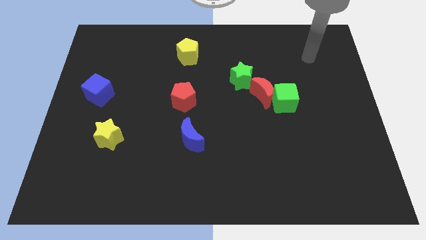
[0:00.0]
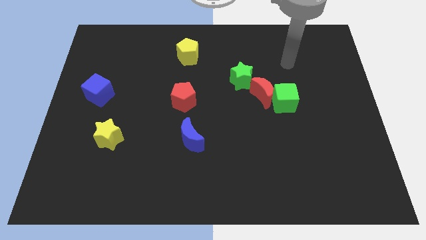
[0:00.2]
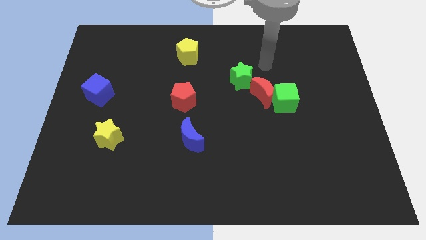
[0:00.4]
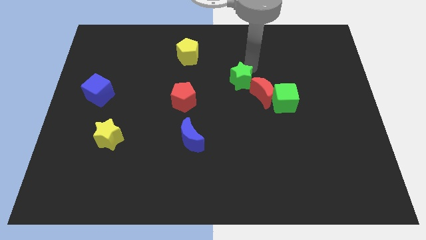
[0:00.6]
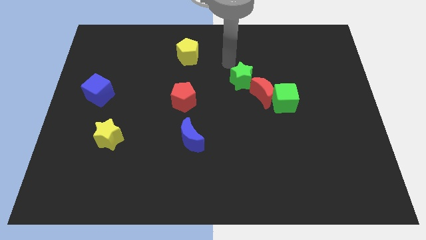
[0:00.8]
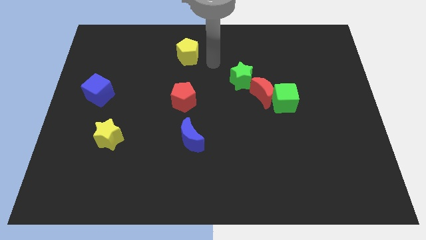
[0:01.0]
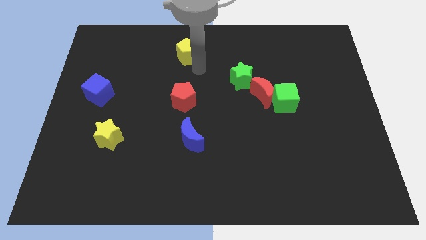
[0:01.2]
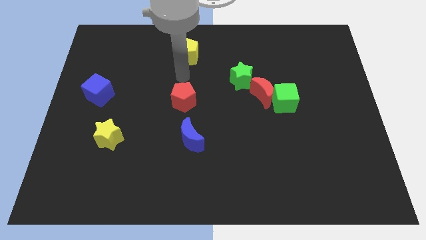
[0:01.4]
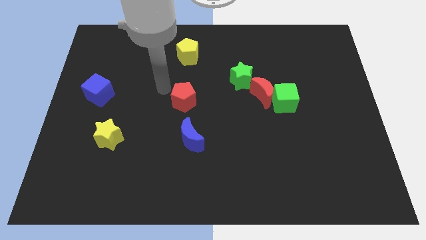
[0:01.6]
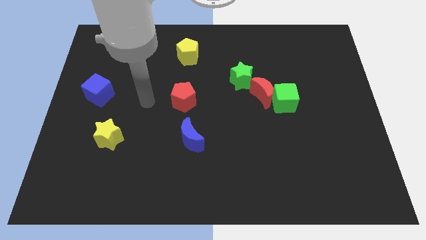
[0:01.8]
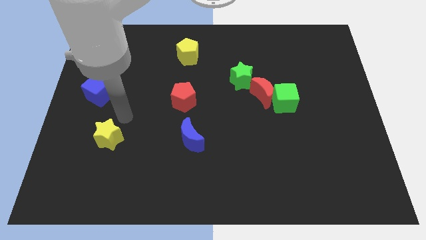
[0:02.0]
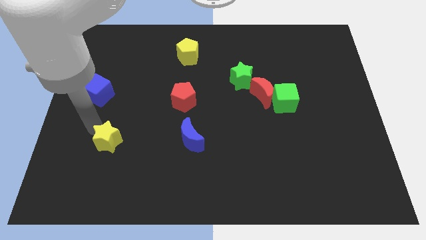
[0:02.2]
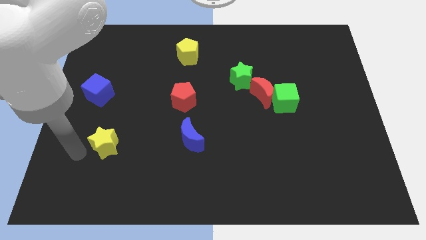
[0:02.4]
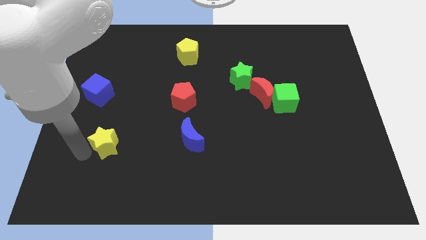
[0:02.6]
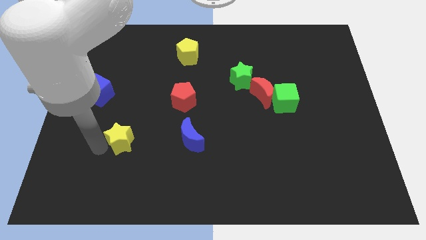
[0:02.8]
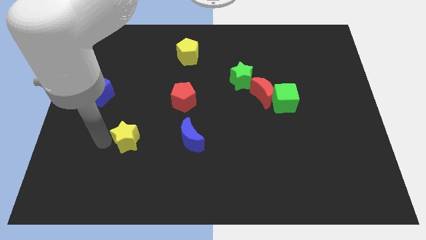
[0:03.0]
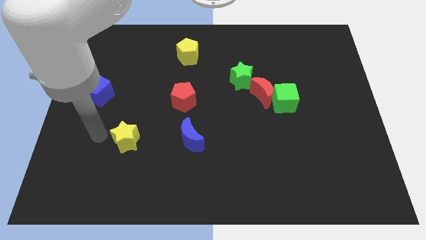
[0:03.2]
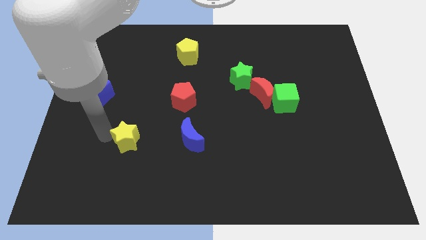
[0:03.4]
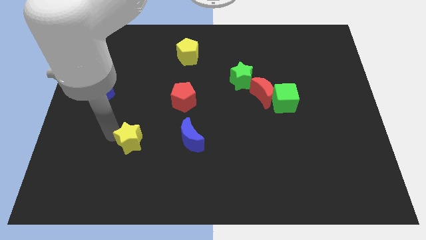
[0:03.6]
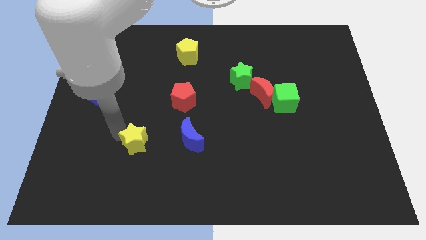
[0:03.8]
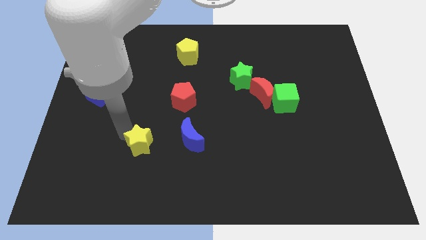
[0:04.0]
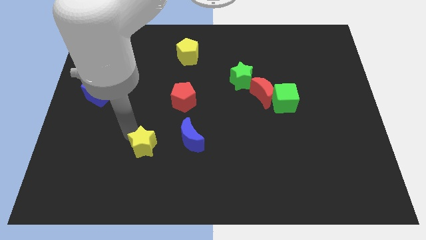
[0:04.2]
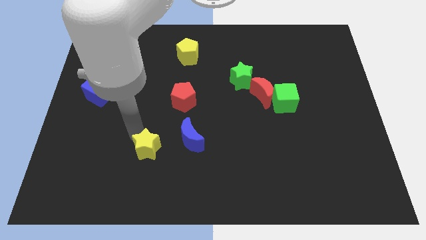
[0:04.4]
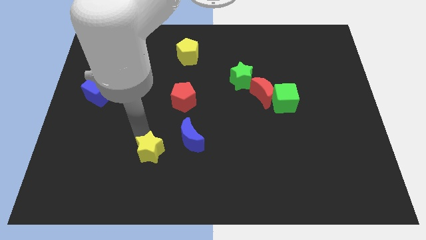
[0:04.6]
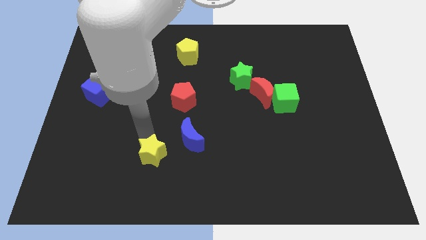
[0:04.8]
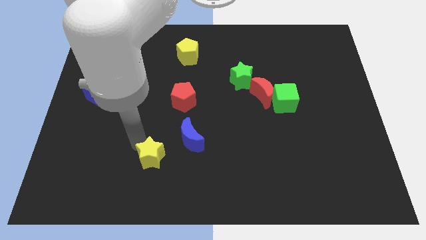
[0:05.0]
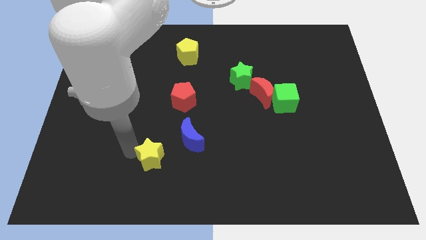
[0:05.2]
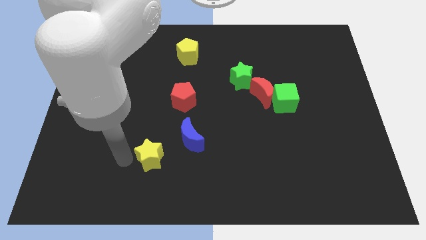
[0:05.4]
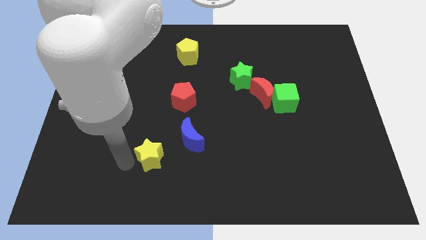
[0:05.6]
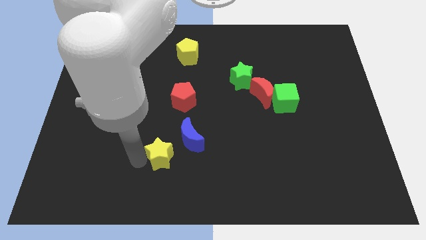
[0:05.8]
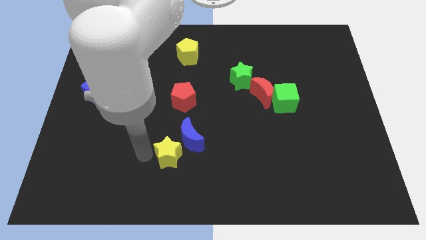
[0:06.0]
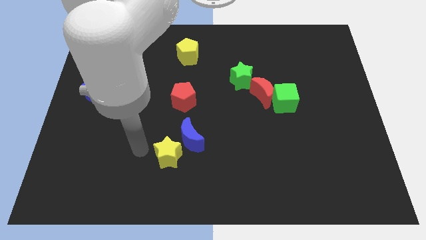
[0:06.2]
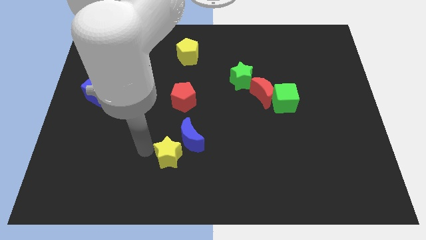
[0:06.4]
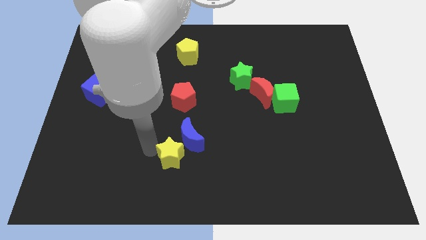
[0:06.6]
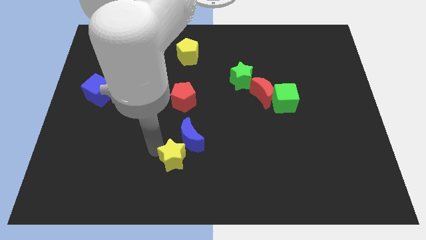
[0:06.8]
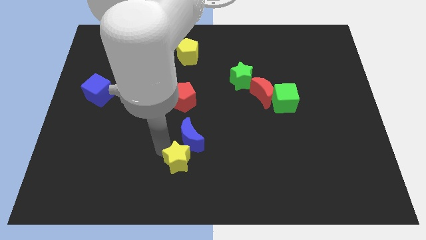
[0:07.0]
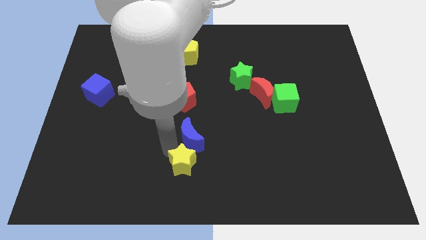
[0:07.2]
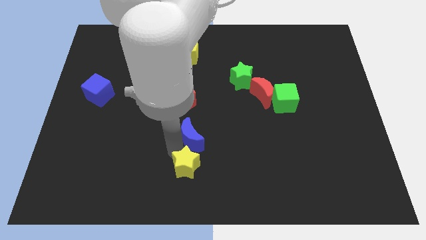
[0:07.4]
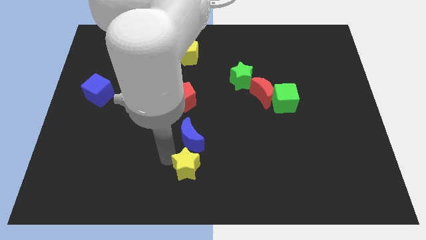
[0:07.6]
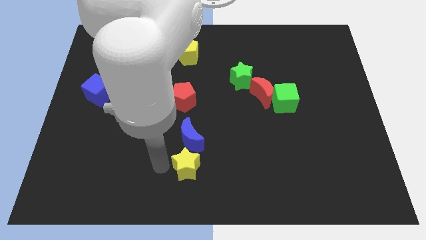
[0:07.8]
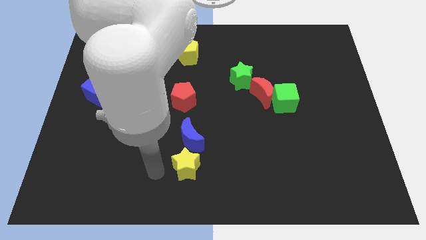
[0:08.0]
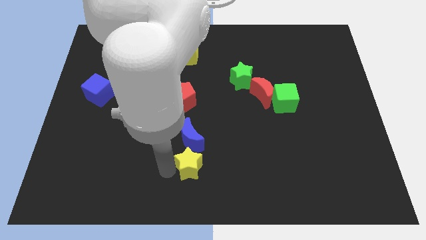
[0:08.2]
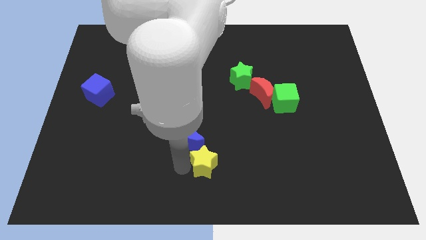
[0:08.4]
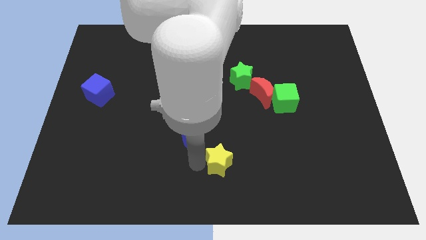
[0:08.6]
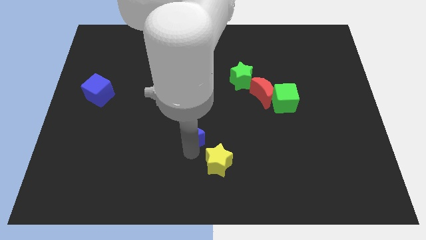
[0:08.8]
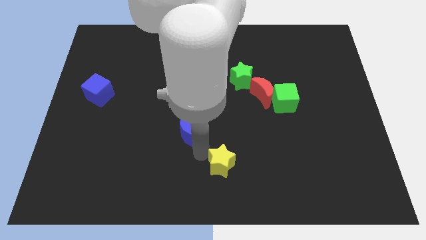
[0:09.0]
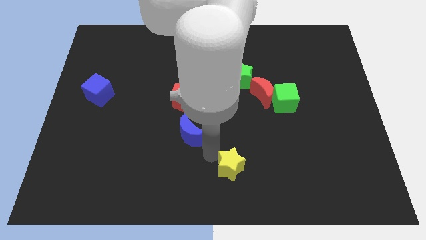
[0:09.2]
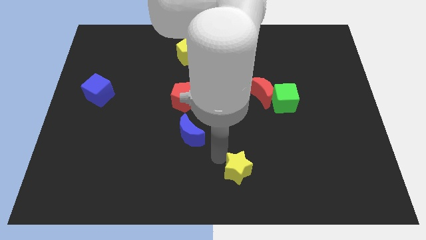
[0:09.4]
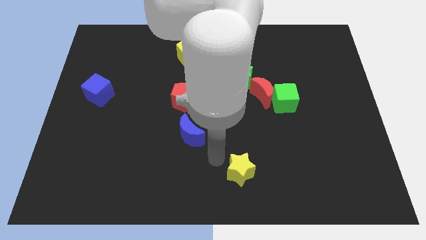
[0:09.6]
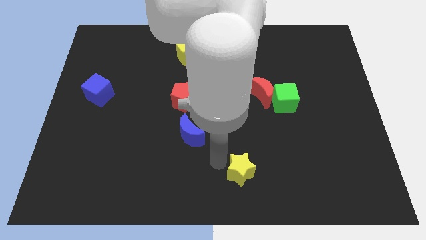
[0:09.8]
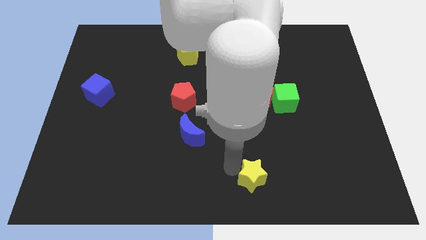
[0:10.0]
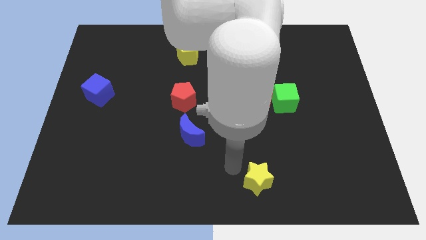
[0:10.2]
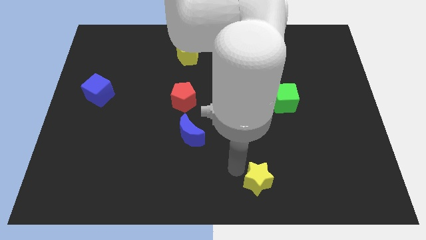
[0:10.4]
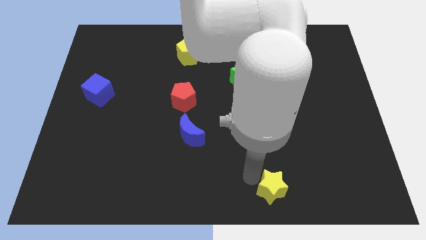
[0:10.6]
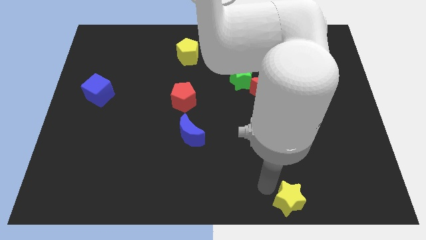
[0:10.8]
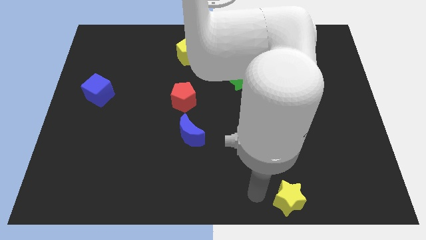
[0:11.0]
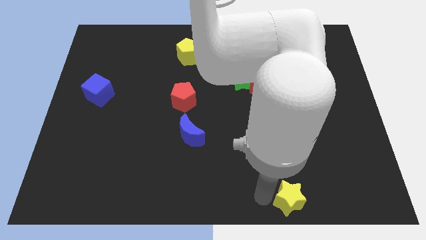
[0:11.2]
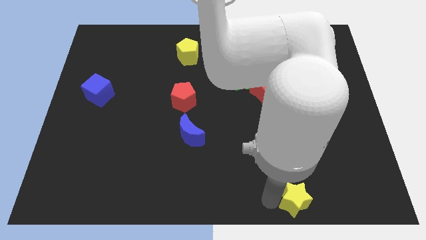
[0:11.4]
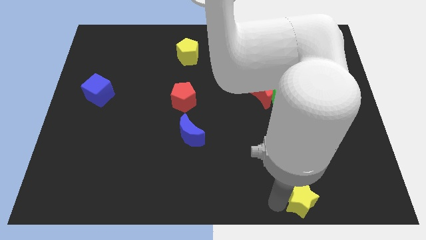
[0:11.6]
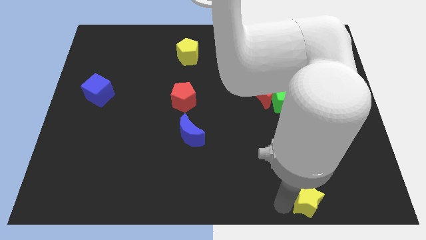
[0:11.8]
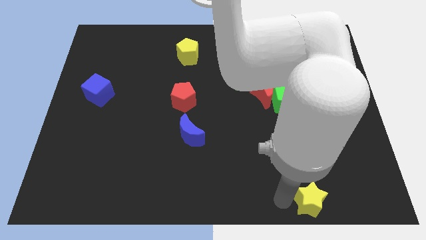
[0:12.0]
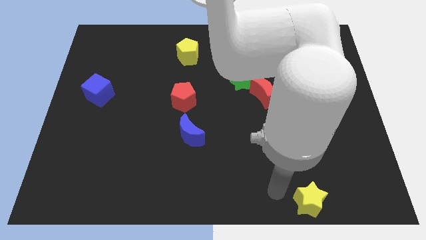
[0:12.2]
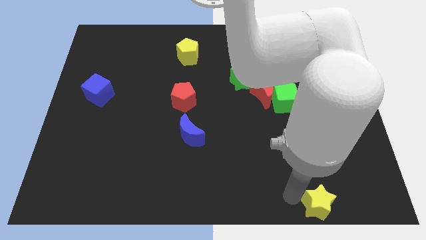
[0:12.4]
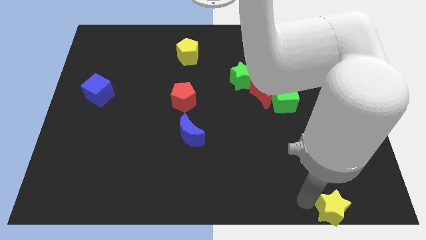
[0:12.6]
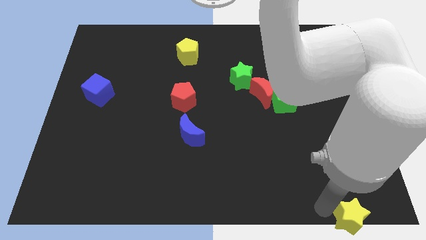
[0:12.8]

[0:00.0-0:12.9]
move the yellow star to the bottom right of the board

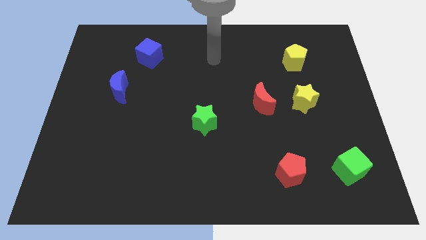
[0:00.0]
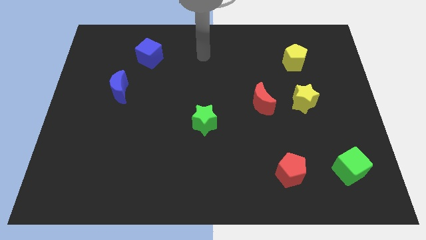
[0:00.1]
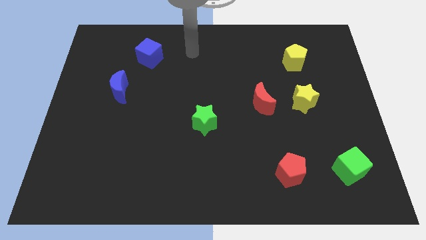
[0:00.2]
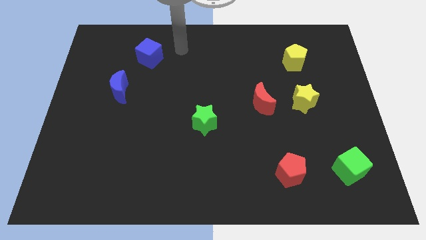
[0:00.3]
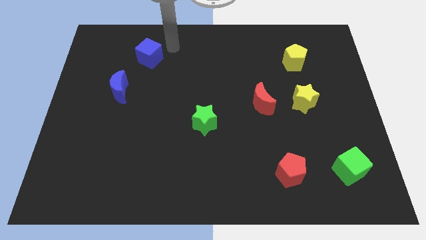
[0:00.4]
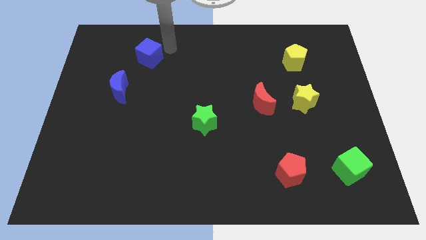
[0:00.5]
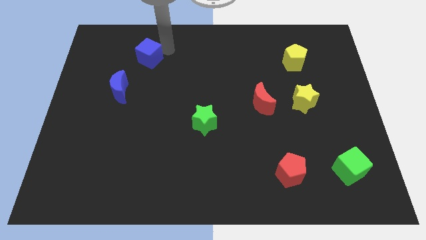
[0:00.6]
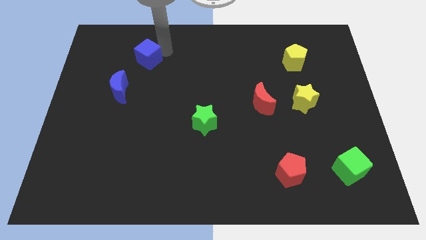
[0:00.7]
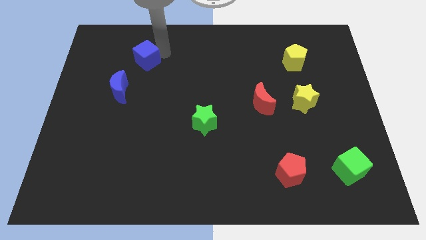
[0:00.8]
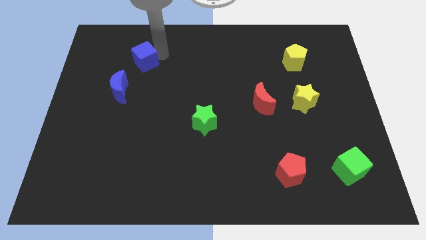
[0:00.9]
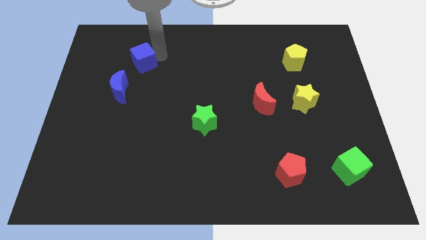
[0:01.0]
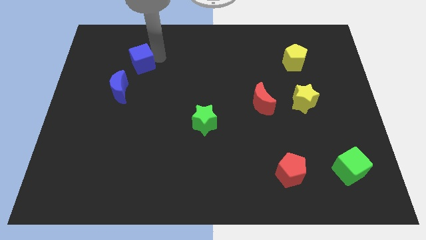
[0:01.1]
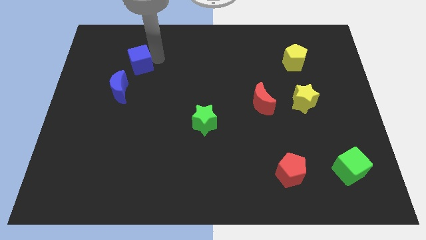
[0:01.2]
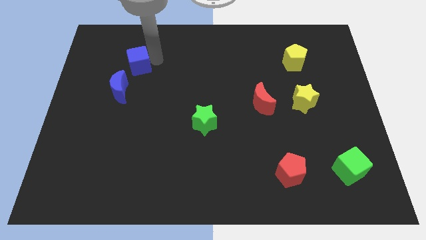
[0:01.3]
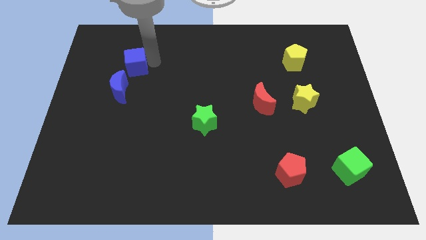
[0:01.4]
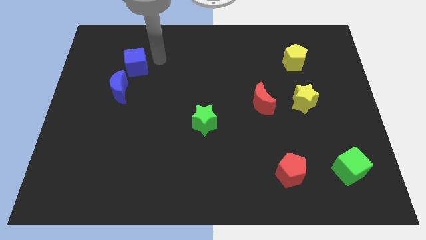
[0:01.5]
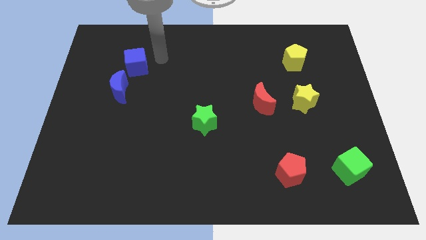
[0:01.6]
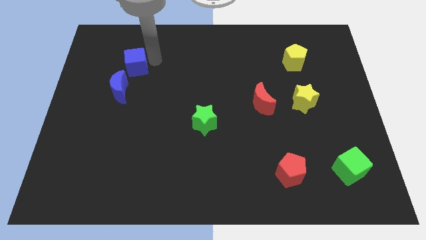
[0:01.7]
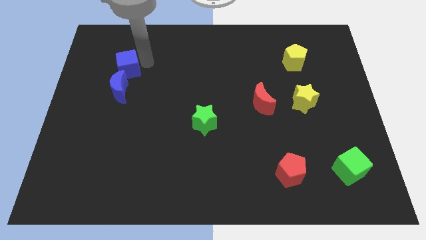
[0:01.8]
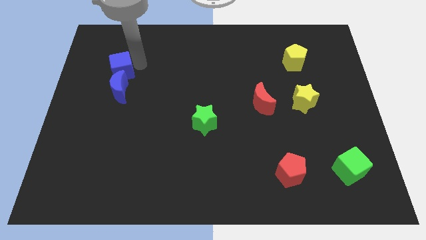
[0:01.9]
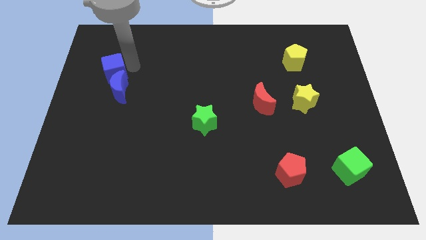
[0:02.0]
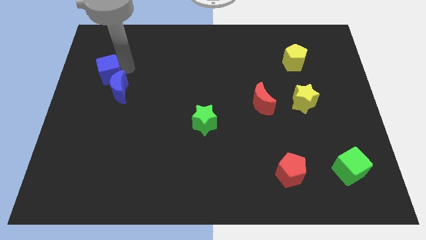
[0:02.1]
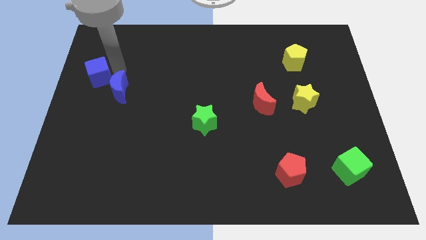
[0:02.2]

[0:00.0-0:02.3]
put the blue cube to the left side of the board

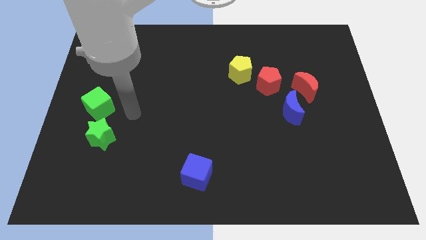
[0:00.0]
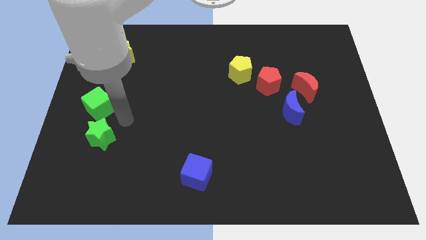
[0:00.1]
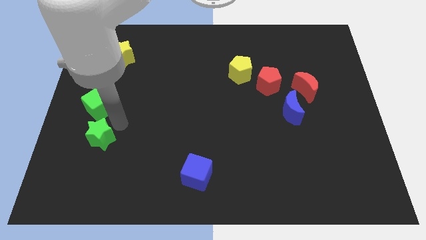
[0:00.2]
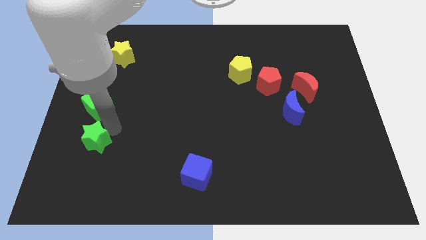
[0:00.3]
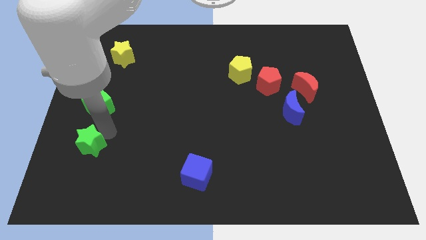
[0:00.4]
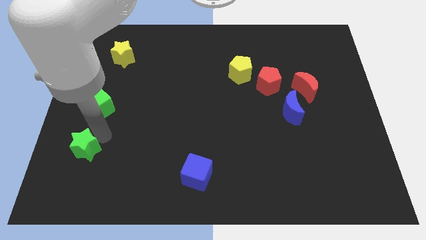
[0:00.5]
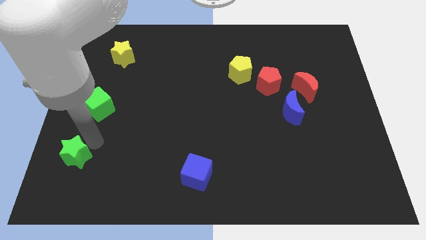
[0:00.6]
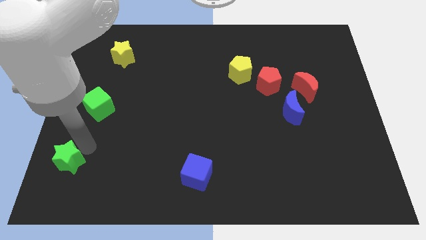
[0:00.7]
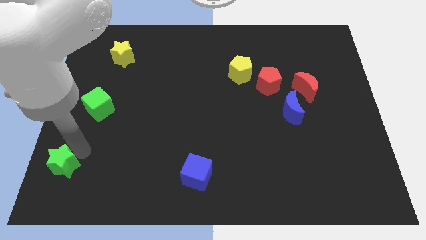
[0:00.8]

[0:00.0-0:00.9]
slide the green star to the bottom left
